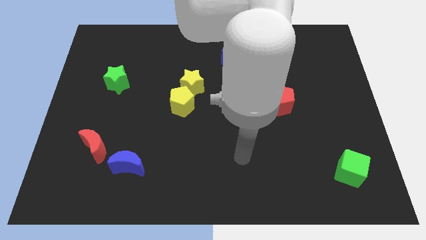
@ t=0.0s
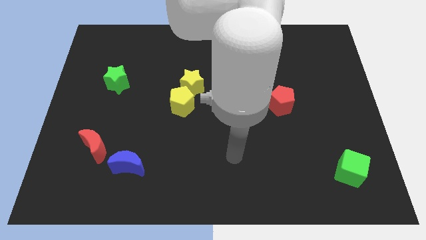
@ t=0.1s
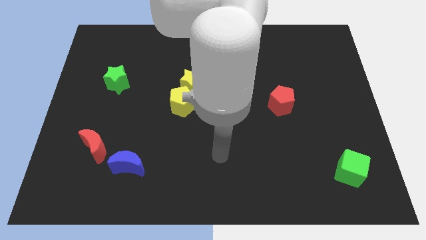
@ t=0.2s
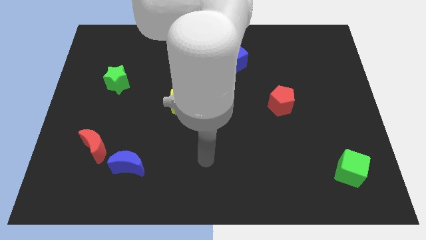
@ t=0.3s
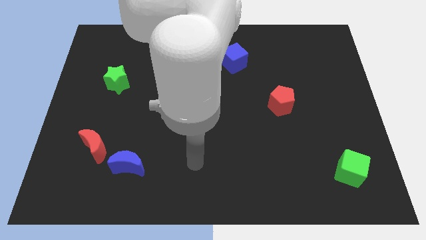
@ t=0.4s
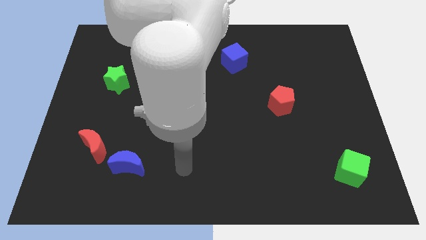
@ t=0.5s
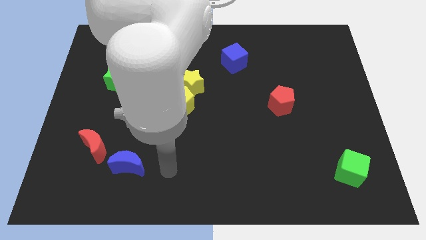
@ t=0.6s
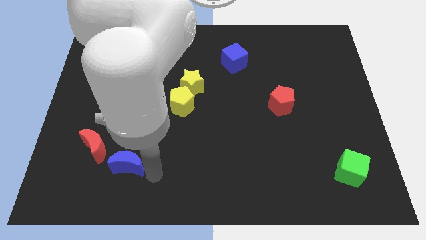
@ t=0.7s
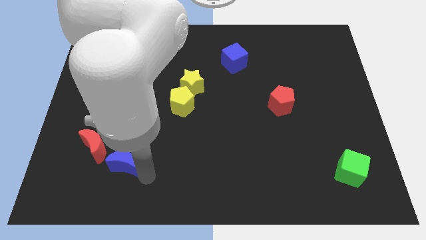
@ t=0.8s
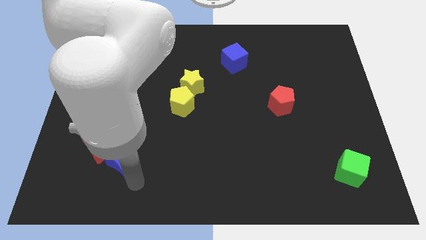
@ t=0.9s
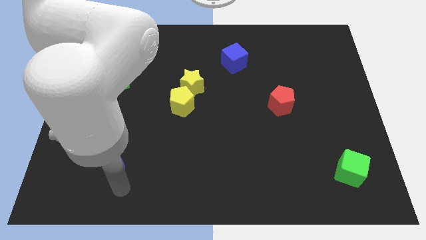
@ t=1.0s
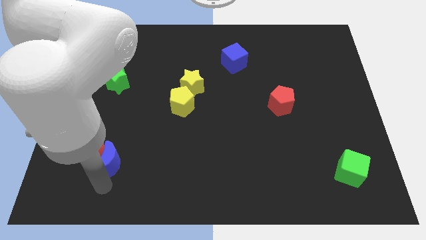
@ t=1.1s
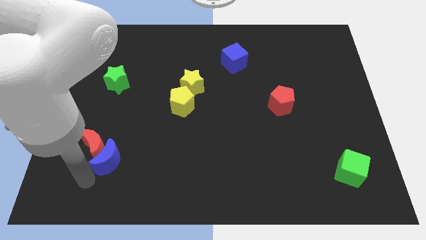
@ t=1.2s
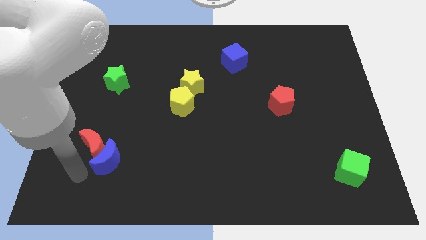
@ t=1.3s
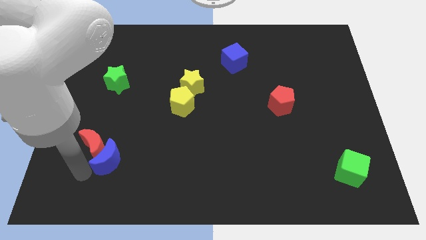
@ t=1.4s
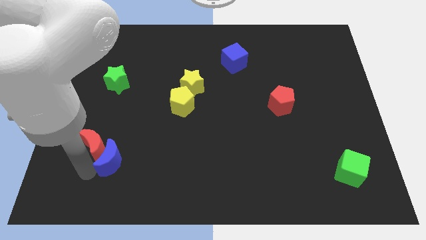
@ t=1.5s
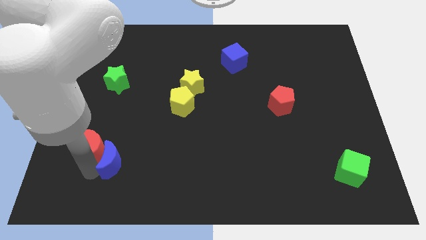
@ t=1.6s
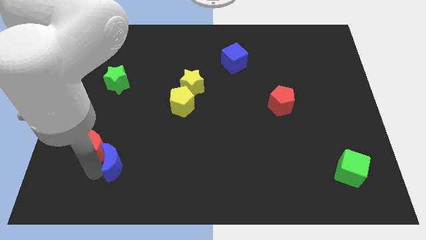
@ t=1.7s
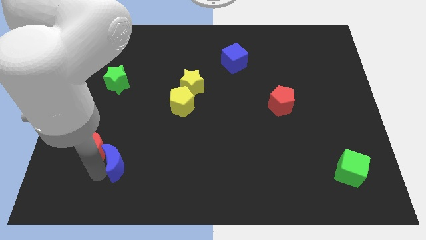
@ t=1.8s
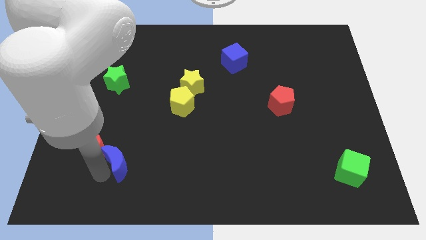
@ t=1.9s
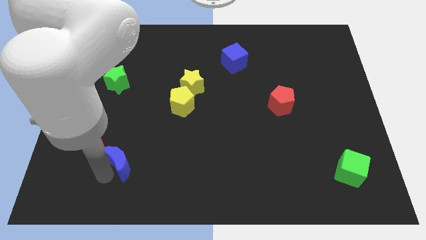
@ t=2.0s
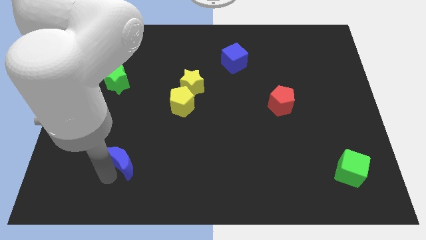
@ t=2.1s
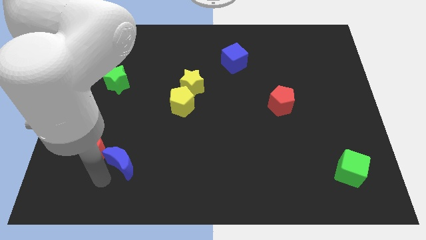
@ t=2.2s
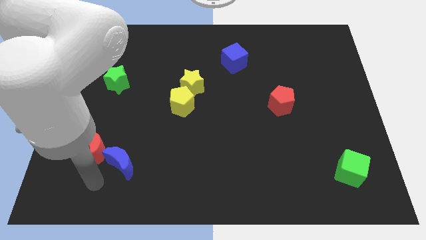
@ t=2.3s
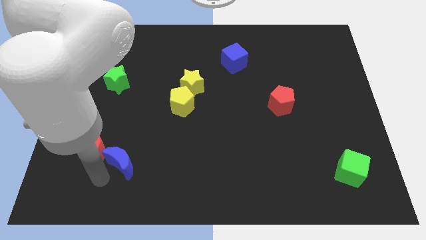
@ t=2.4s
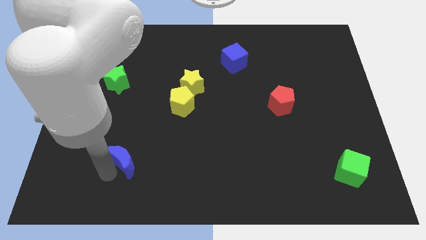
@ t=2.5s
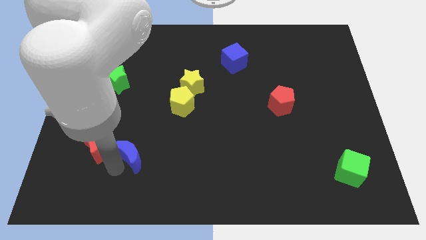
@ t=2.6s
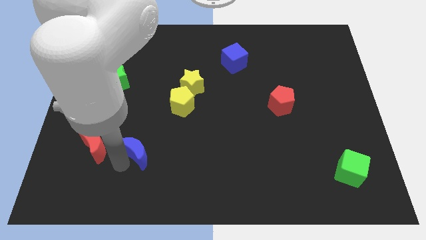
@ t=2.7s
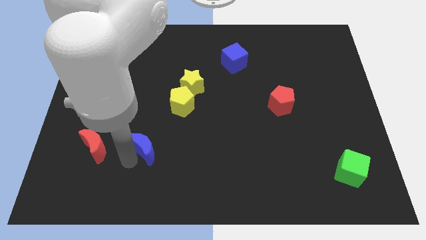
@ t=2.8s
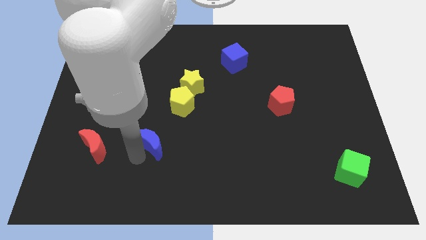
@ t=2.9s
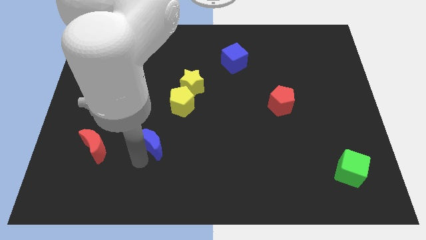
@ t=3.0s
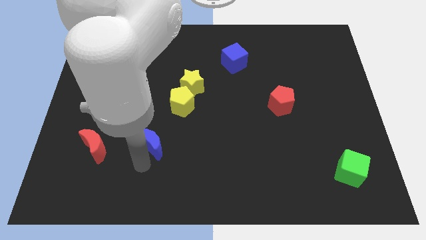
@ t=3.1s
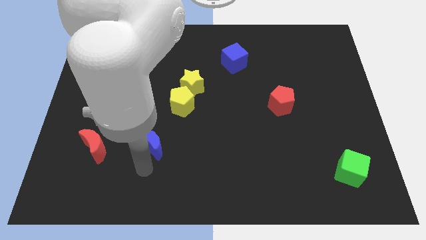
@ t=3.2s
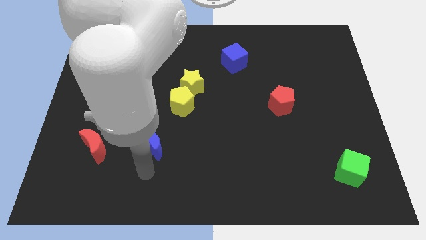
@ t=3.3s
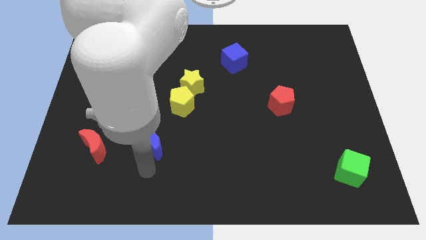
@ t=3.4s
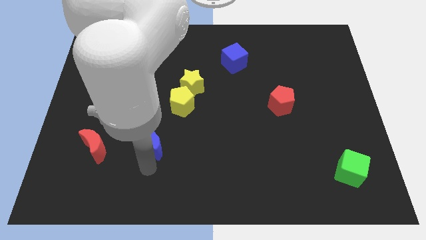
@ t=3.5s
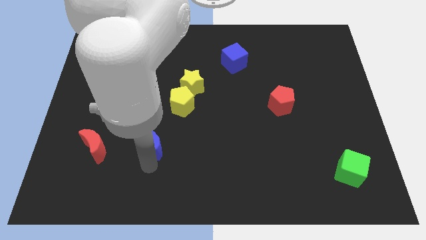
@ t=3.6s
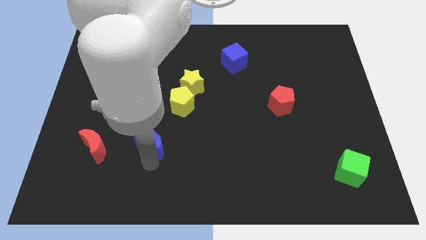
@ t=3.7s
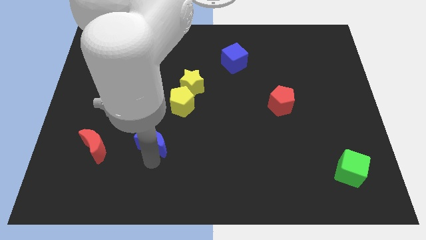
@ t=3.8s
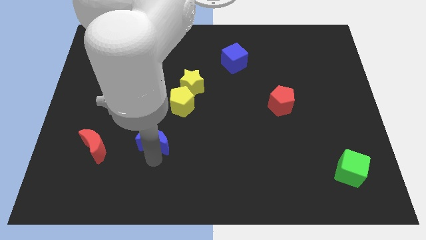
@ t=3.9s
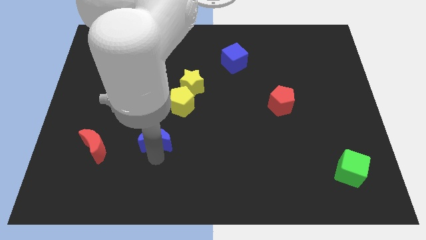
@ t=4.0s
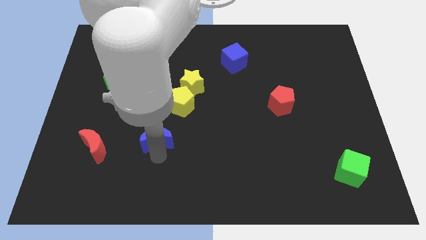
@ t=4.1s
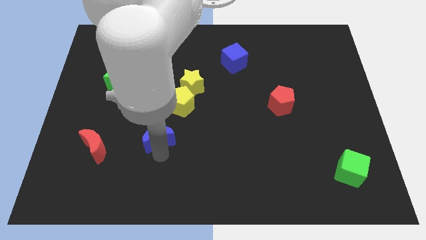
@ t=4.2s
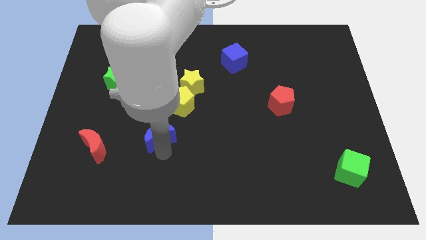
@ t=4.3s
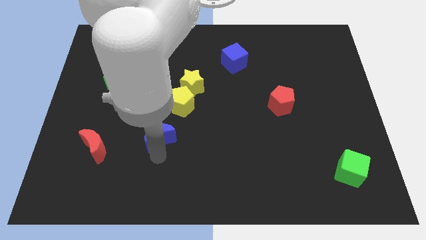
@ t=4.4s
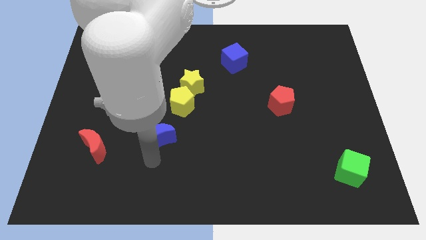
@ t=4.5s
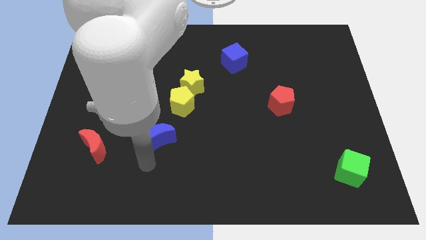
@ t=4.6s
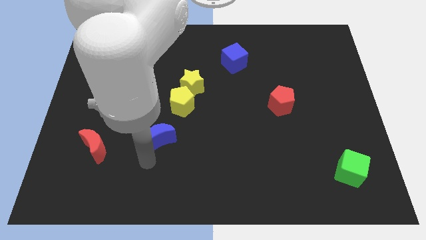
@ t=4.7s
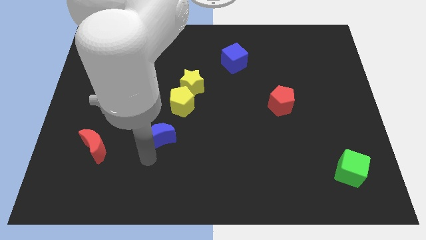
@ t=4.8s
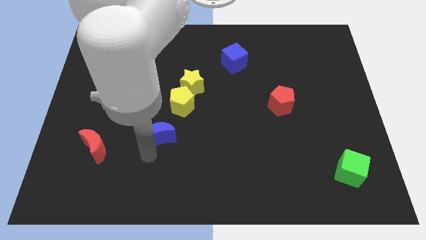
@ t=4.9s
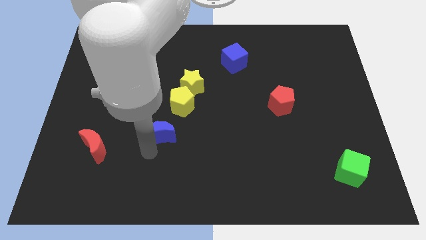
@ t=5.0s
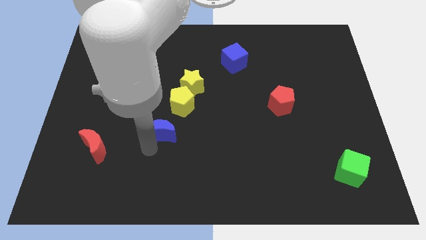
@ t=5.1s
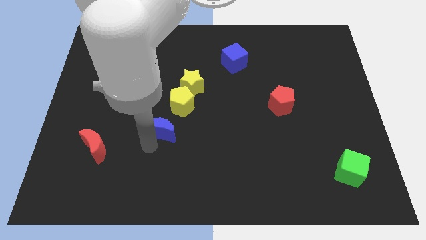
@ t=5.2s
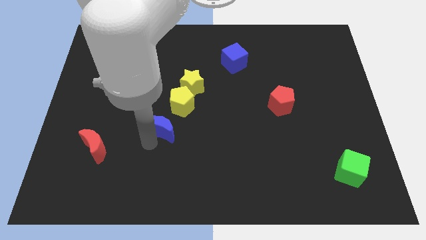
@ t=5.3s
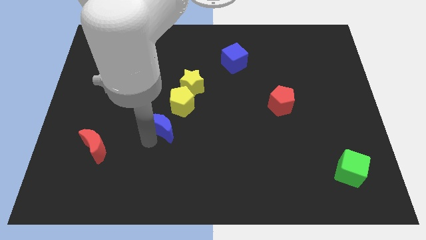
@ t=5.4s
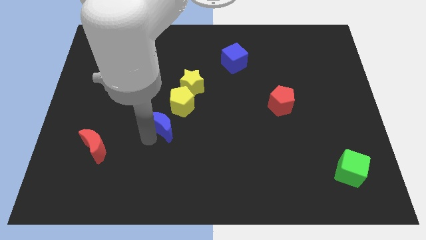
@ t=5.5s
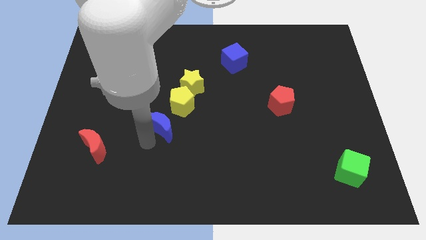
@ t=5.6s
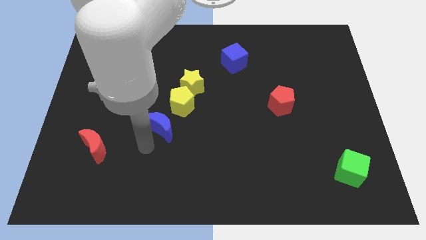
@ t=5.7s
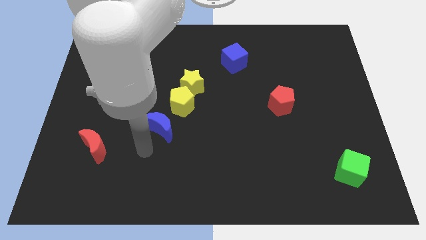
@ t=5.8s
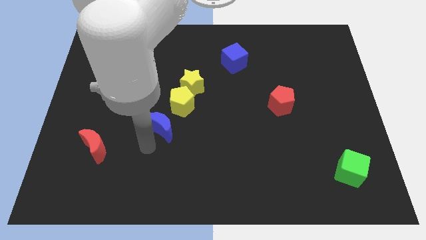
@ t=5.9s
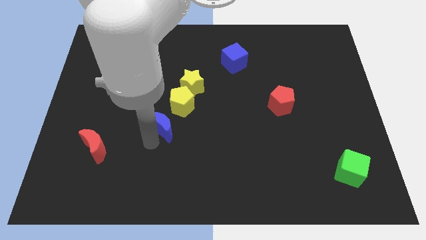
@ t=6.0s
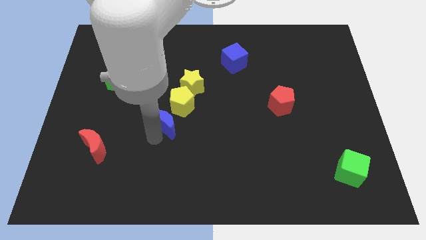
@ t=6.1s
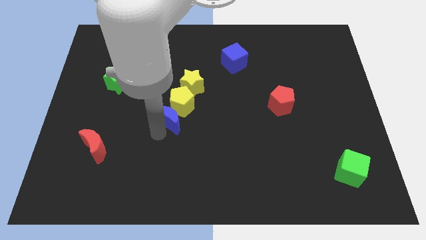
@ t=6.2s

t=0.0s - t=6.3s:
slide the blue moon next to the yellow pentagon
